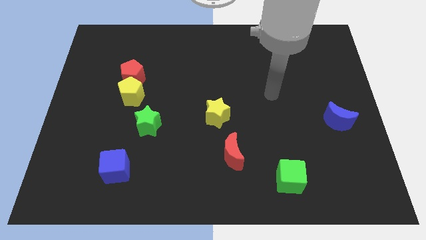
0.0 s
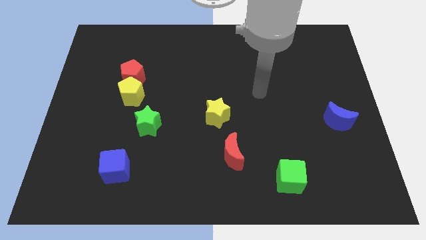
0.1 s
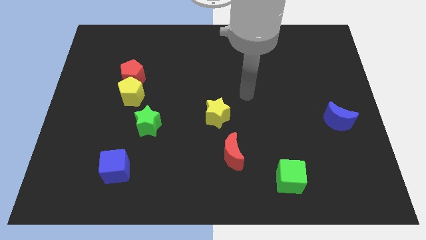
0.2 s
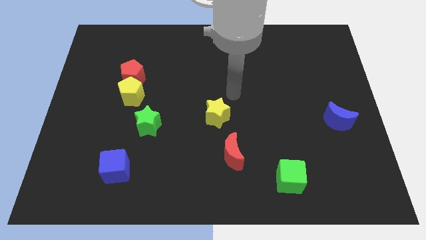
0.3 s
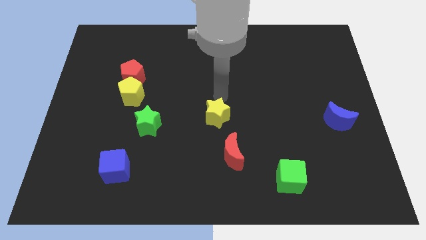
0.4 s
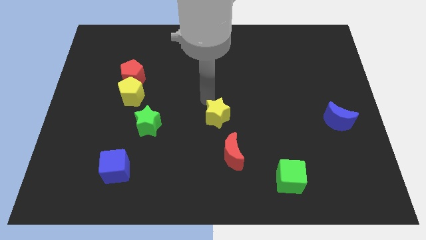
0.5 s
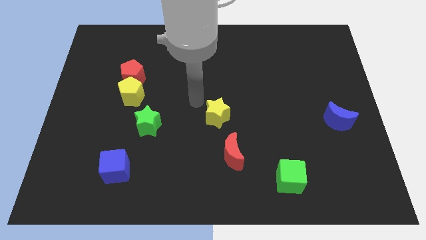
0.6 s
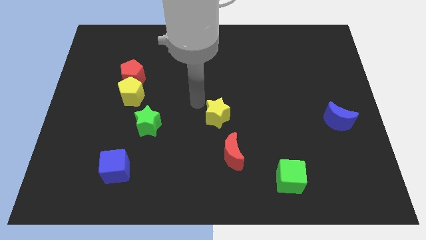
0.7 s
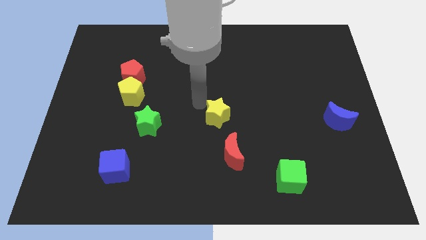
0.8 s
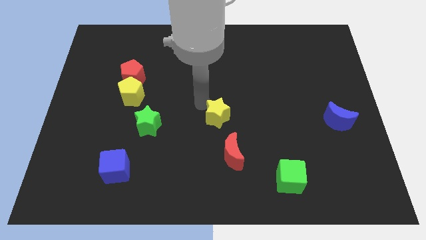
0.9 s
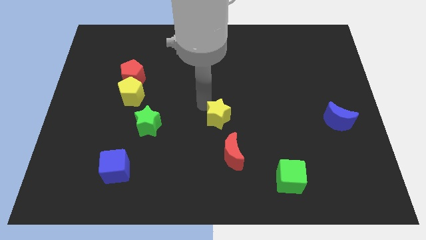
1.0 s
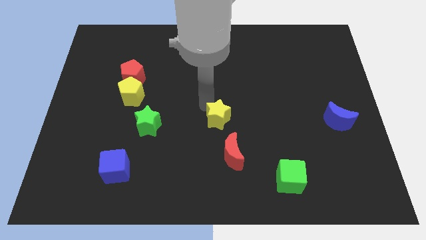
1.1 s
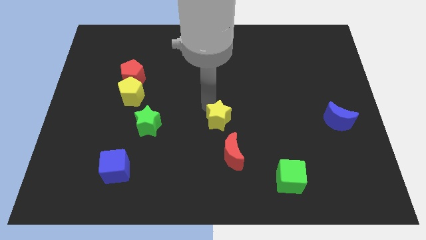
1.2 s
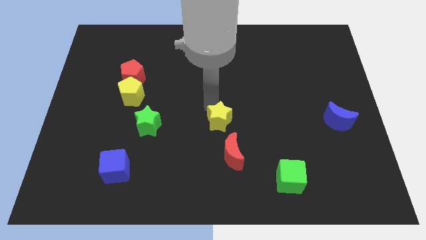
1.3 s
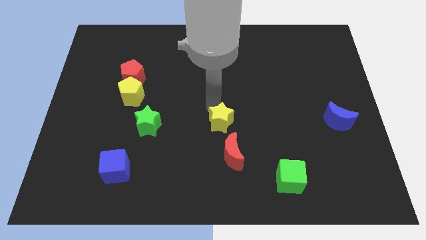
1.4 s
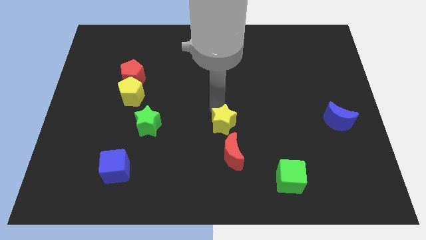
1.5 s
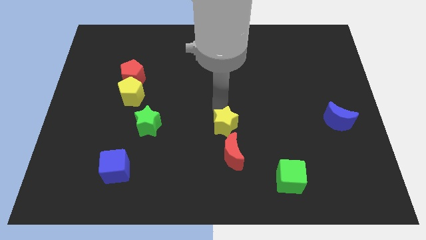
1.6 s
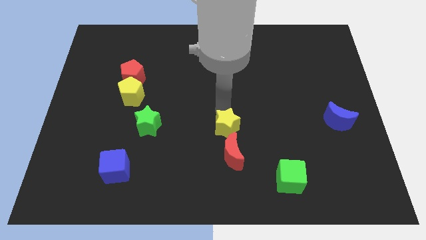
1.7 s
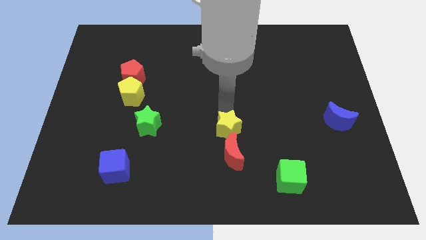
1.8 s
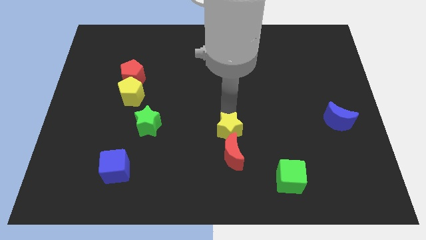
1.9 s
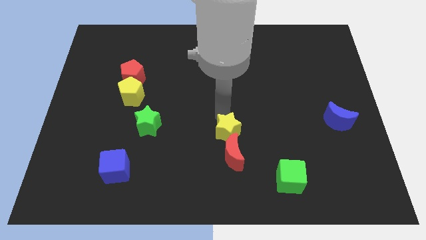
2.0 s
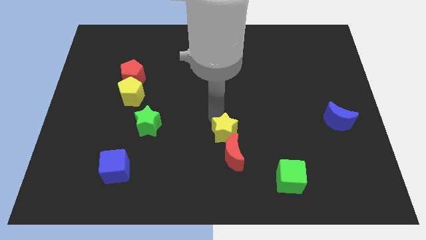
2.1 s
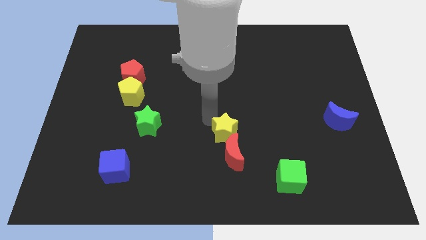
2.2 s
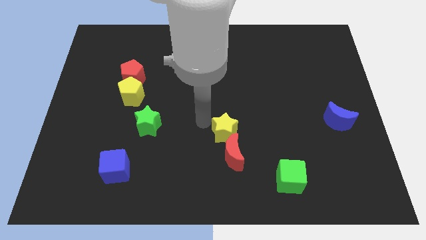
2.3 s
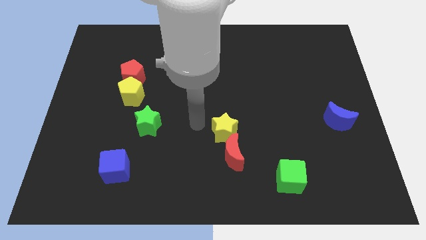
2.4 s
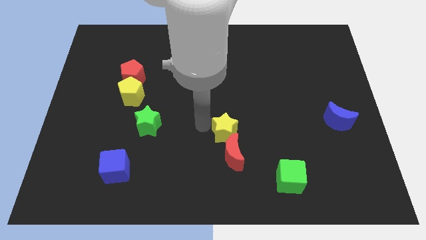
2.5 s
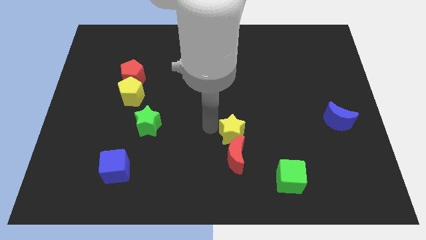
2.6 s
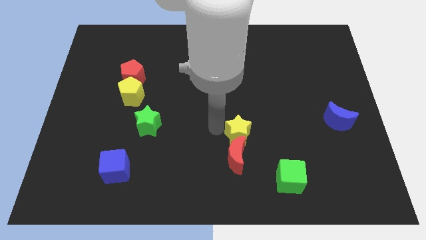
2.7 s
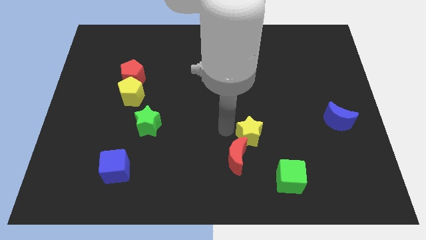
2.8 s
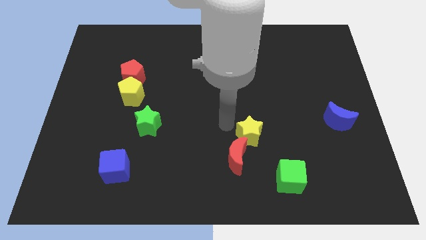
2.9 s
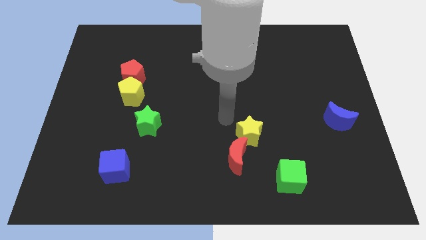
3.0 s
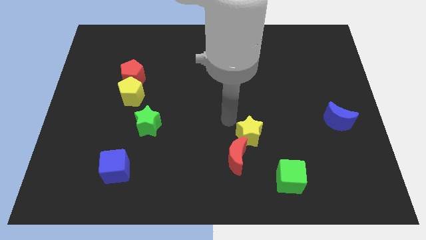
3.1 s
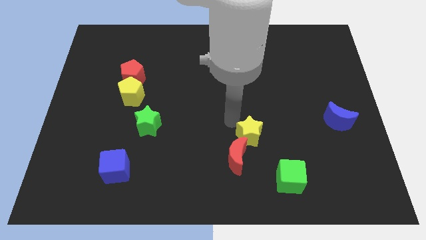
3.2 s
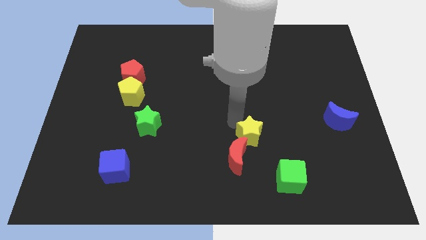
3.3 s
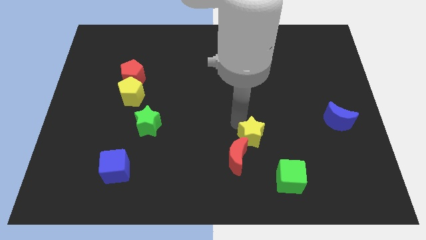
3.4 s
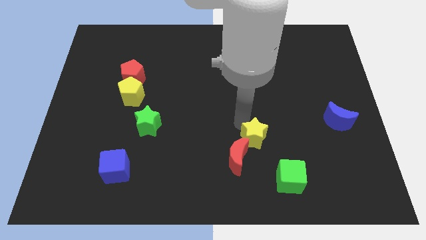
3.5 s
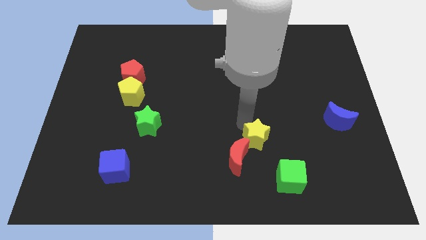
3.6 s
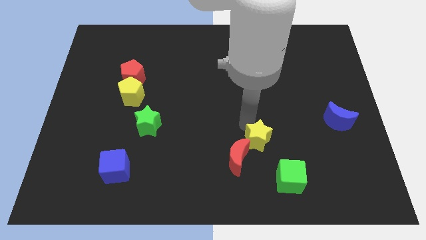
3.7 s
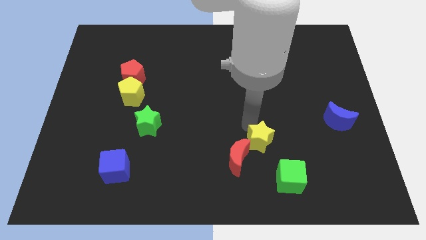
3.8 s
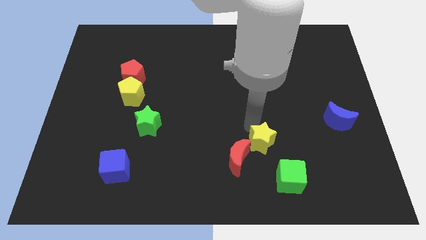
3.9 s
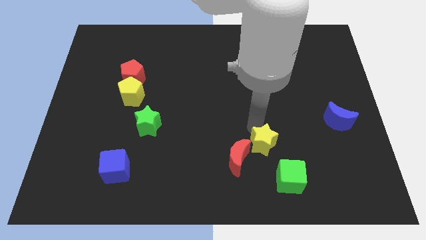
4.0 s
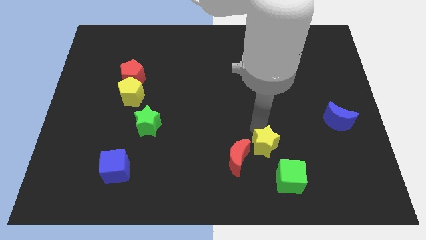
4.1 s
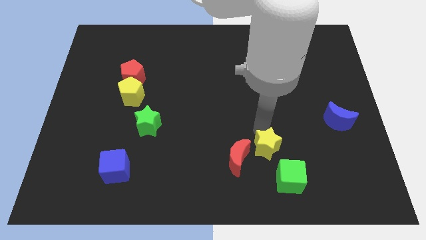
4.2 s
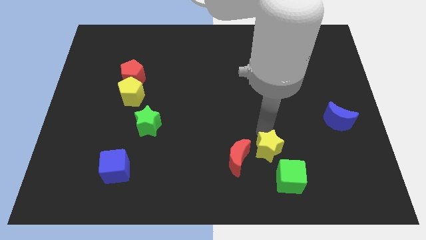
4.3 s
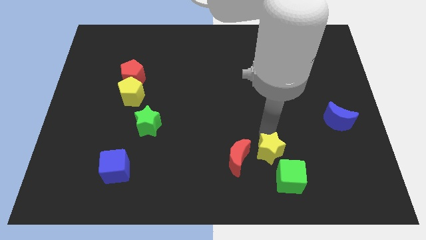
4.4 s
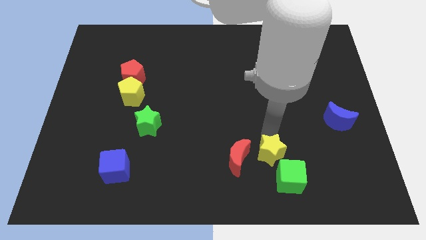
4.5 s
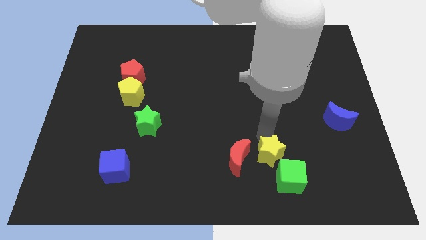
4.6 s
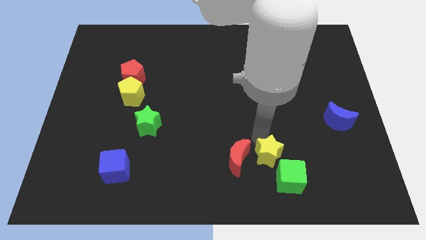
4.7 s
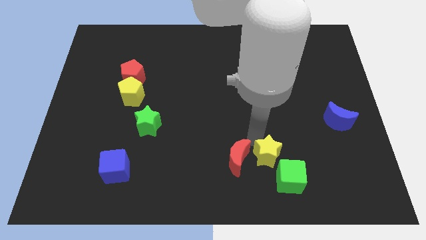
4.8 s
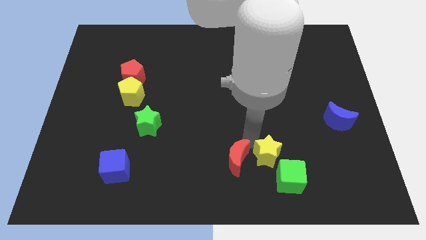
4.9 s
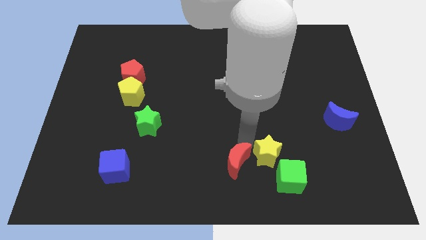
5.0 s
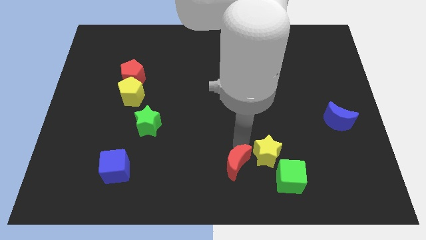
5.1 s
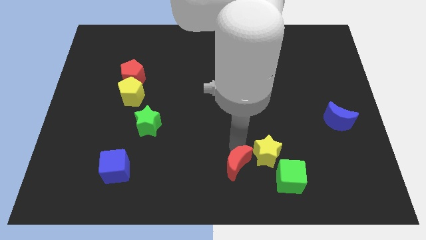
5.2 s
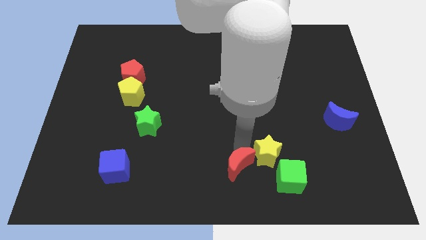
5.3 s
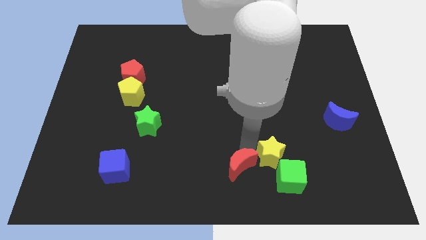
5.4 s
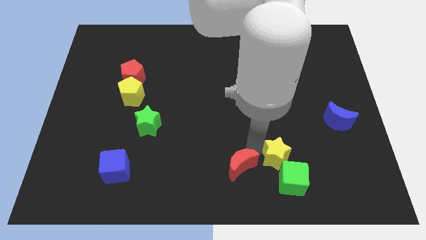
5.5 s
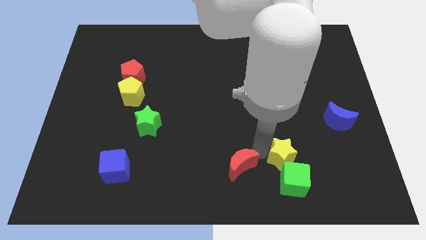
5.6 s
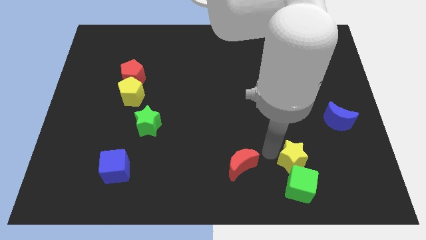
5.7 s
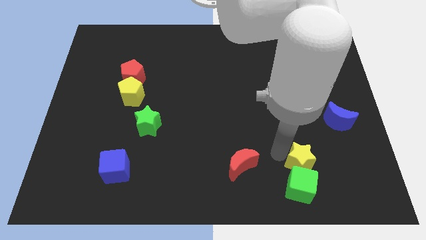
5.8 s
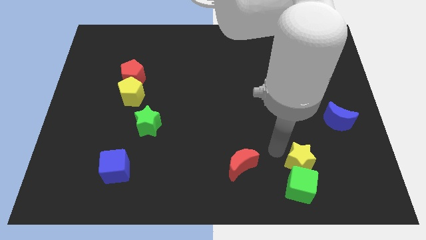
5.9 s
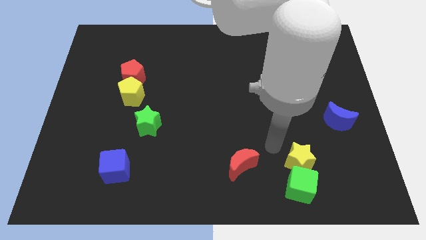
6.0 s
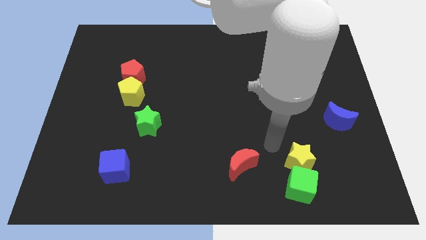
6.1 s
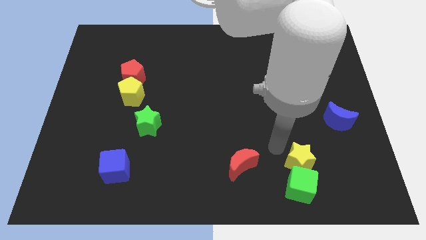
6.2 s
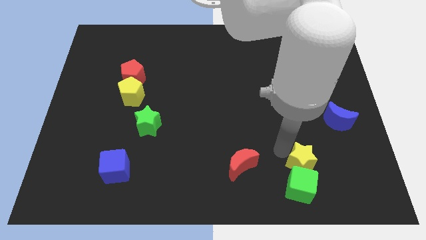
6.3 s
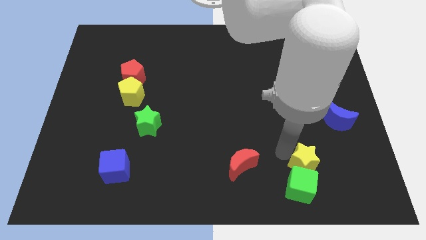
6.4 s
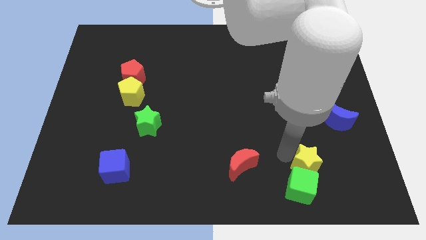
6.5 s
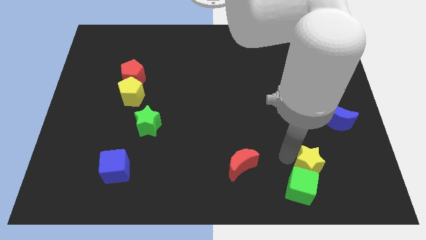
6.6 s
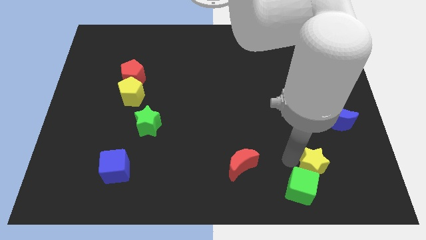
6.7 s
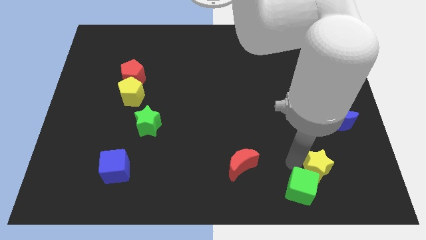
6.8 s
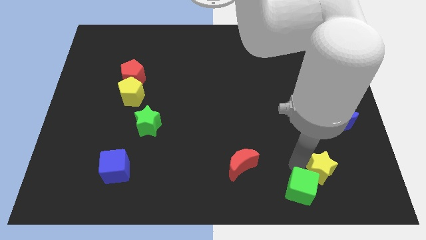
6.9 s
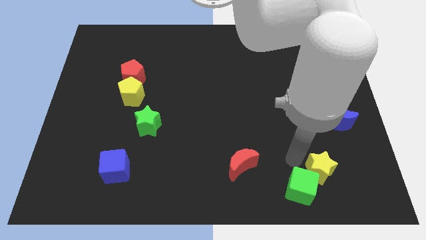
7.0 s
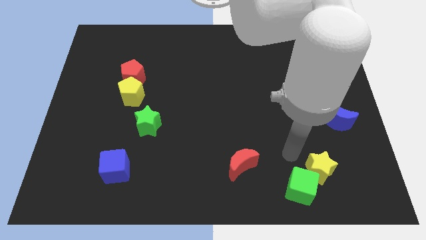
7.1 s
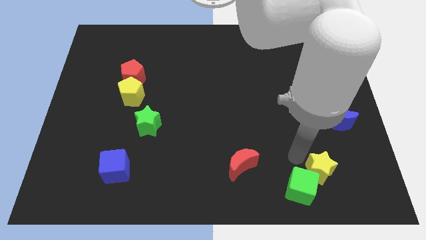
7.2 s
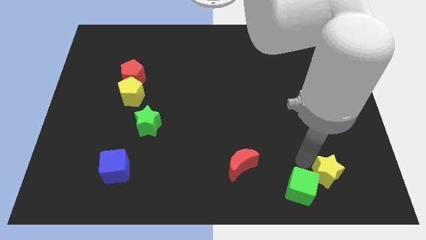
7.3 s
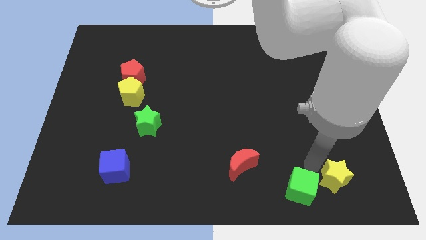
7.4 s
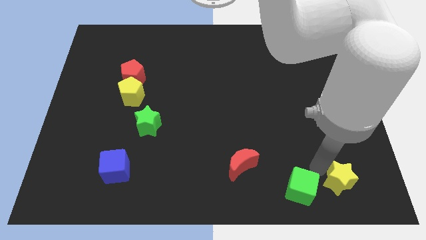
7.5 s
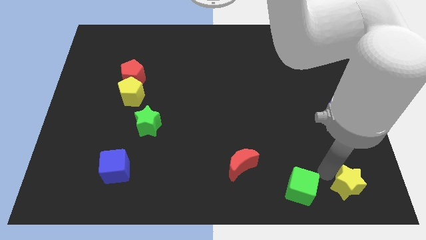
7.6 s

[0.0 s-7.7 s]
move the yellow star to the lower right corner
